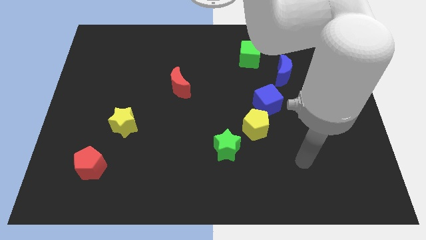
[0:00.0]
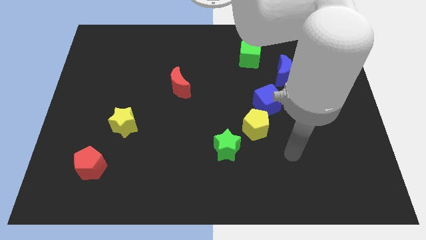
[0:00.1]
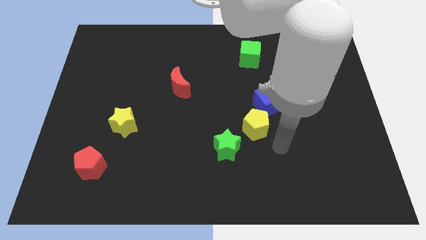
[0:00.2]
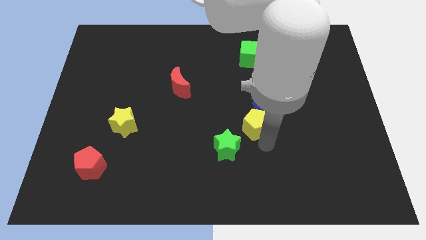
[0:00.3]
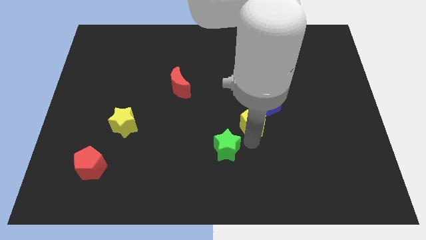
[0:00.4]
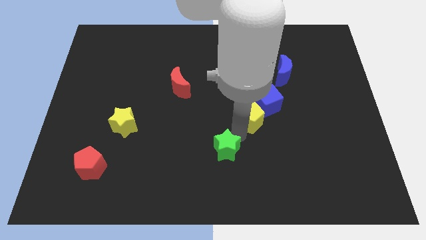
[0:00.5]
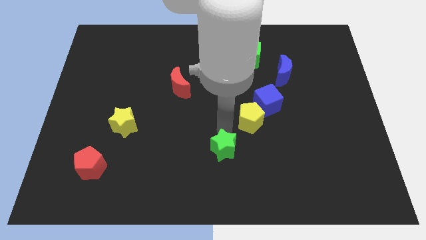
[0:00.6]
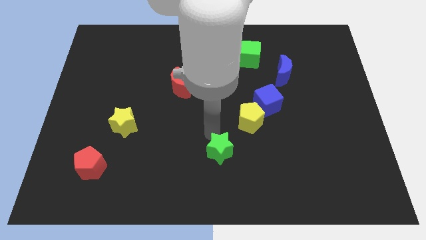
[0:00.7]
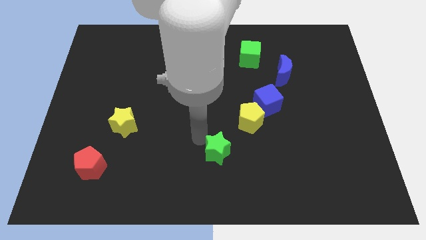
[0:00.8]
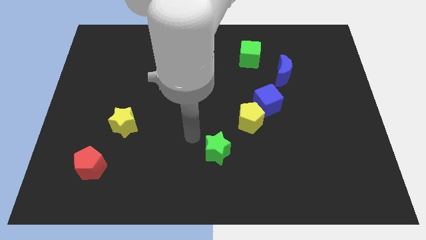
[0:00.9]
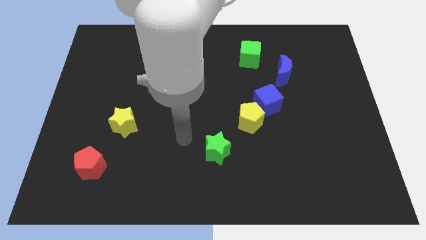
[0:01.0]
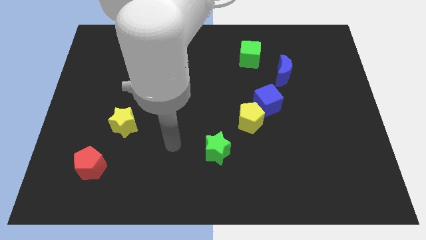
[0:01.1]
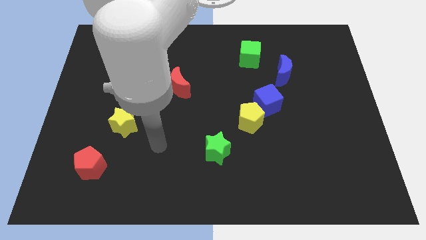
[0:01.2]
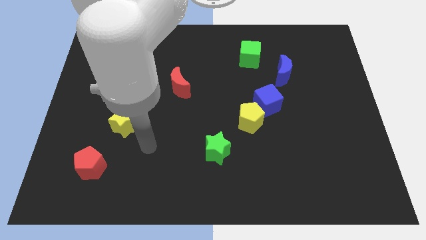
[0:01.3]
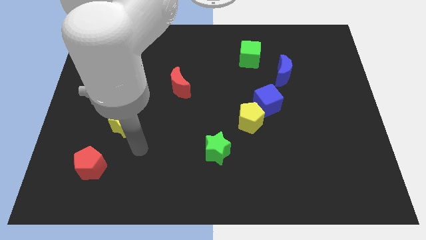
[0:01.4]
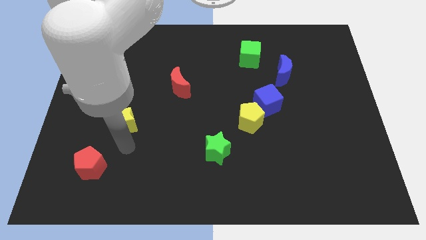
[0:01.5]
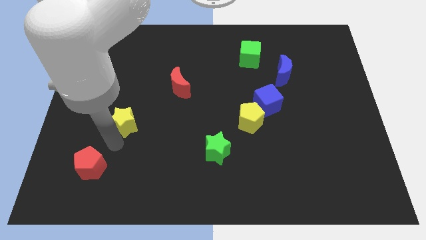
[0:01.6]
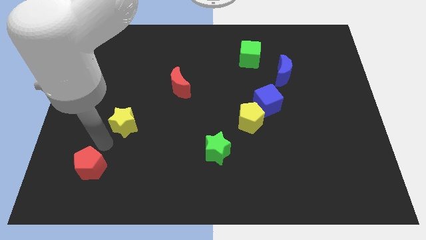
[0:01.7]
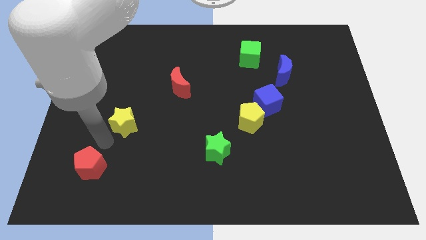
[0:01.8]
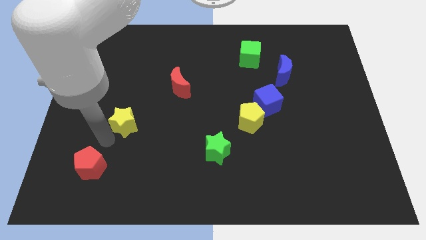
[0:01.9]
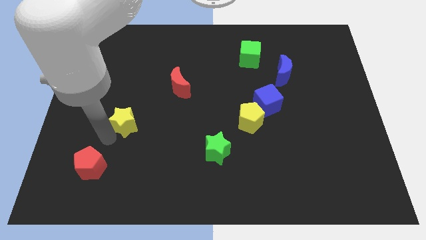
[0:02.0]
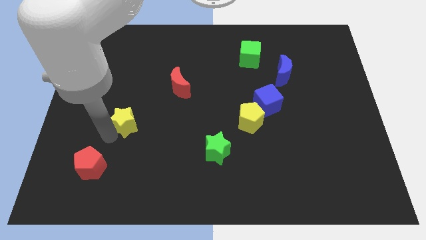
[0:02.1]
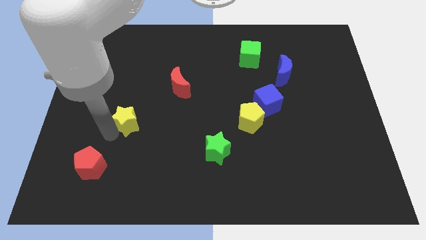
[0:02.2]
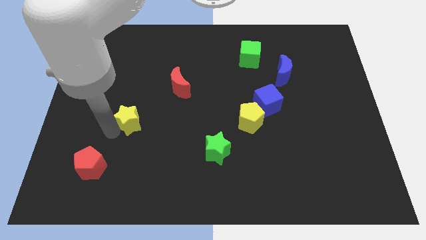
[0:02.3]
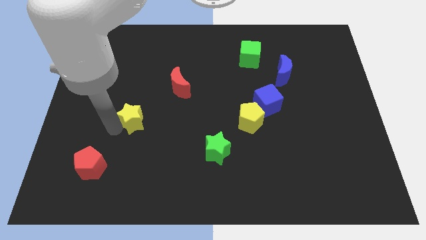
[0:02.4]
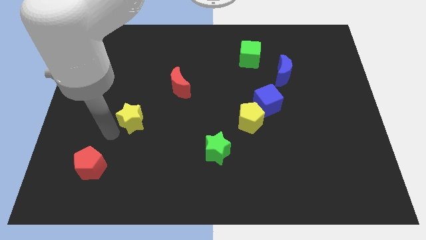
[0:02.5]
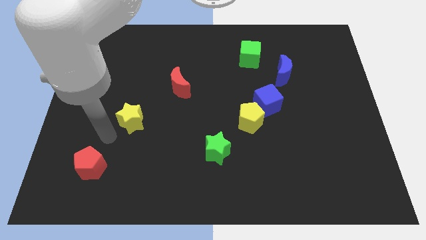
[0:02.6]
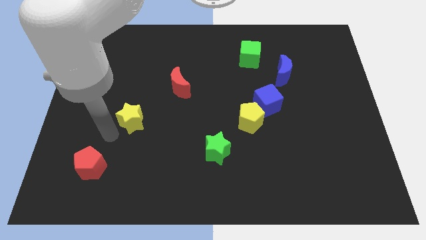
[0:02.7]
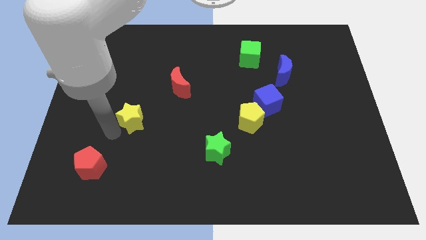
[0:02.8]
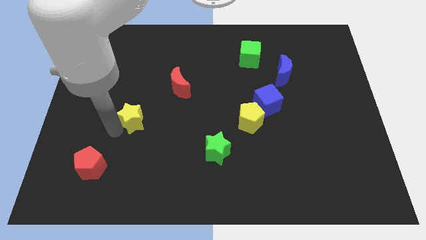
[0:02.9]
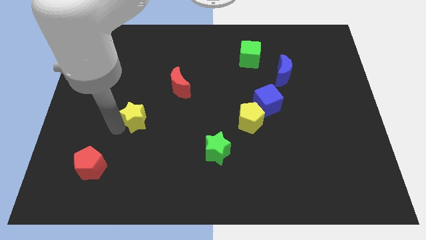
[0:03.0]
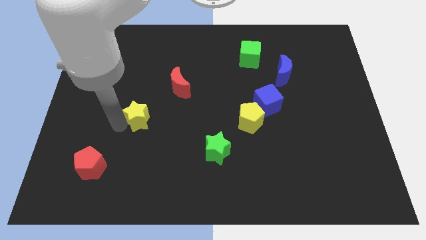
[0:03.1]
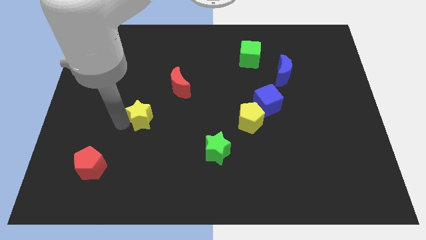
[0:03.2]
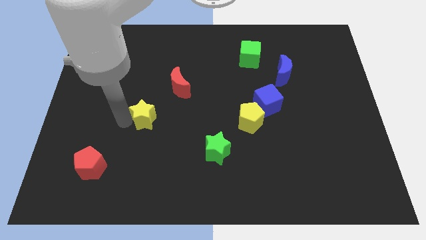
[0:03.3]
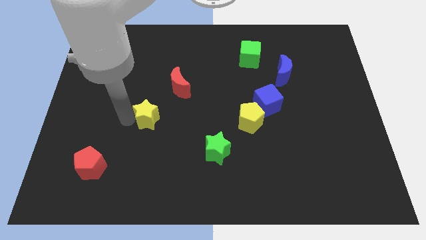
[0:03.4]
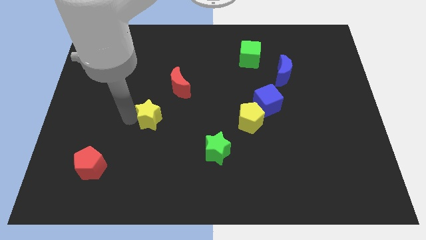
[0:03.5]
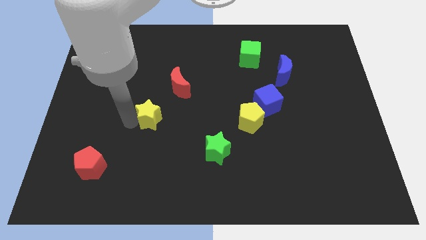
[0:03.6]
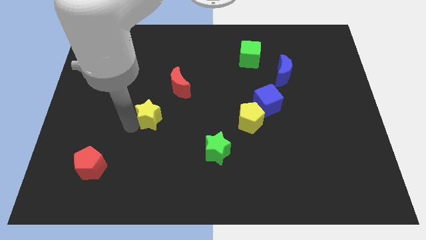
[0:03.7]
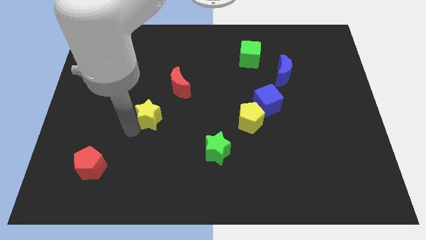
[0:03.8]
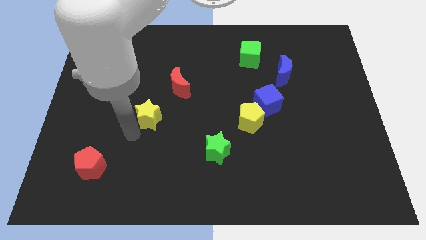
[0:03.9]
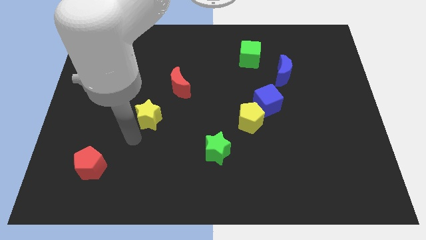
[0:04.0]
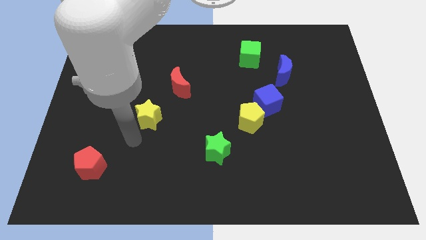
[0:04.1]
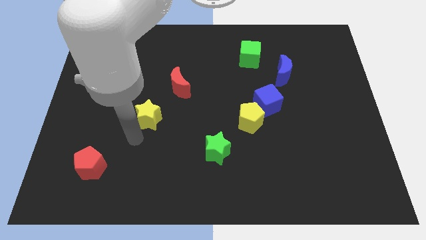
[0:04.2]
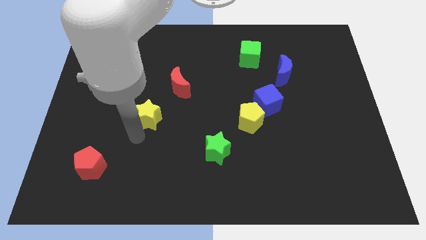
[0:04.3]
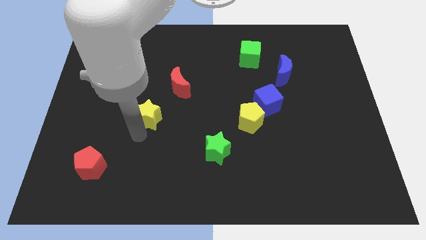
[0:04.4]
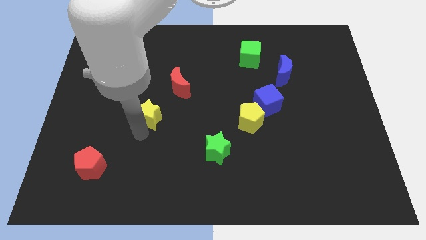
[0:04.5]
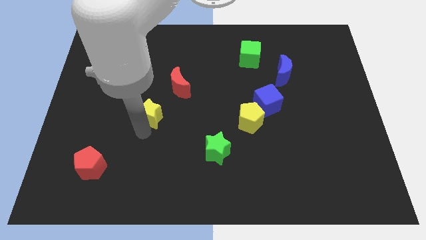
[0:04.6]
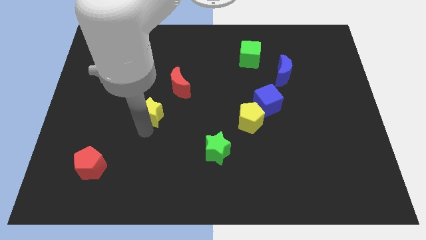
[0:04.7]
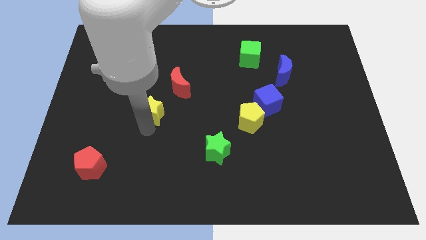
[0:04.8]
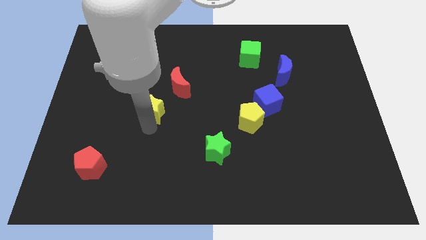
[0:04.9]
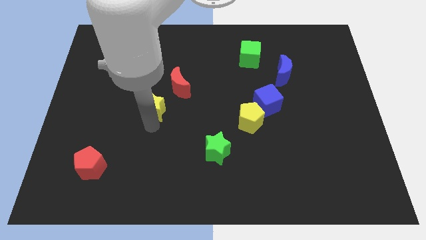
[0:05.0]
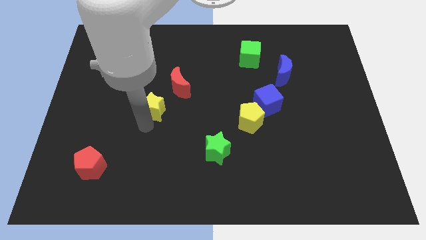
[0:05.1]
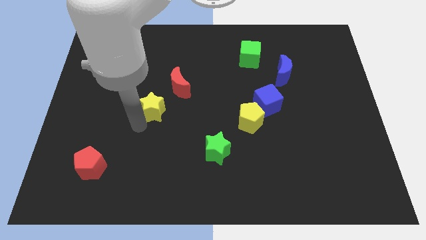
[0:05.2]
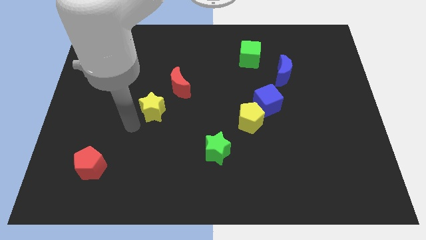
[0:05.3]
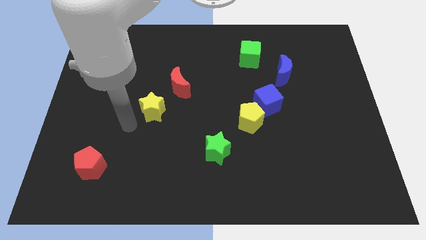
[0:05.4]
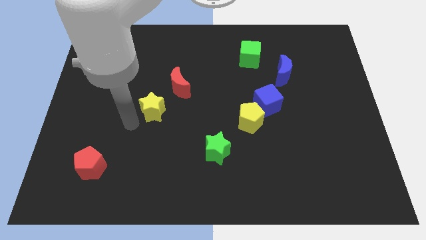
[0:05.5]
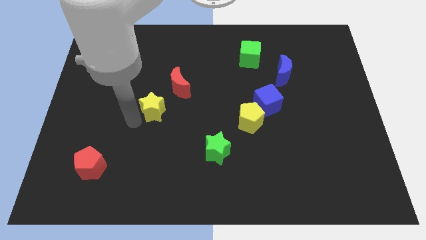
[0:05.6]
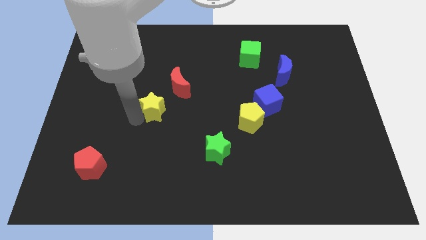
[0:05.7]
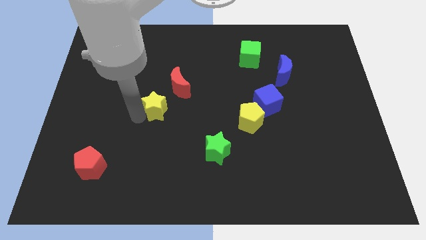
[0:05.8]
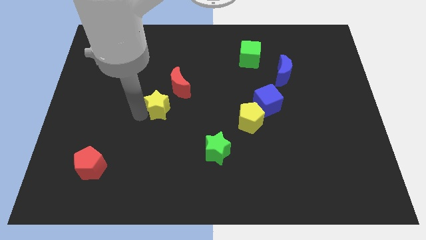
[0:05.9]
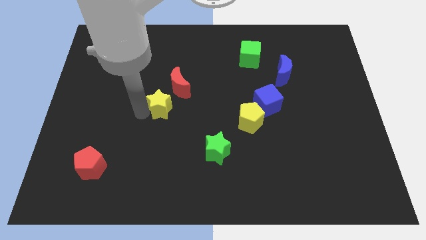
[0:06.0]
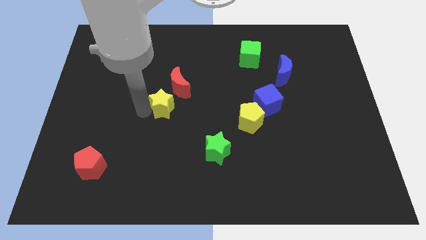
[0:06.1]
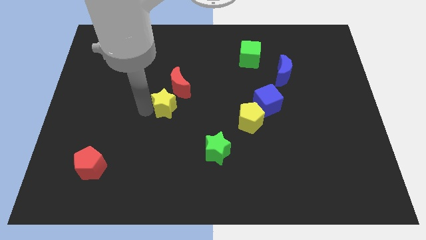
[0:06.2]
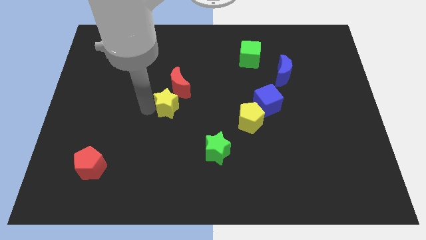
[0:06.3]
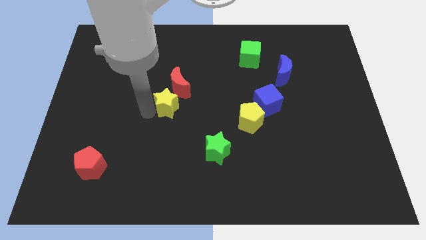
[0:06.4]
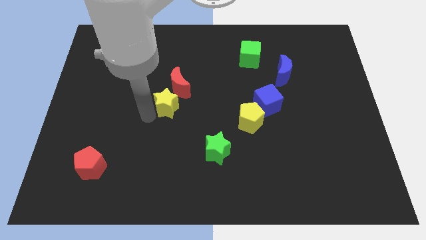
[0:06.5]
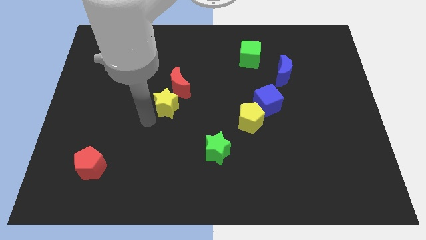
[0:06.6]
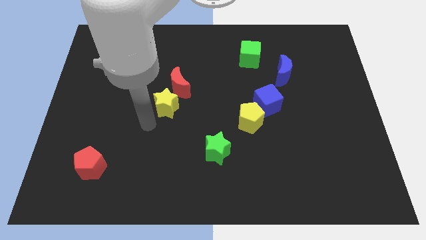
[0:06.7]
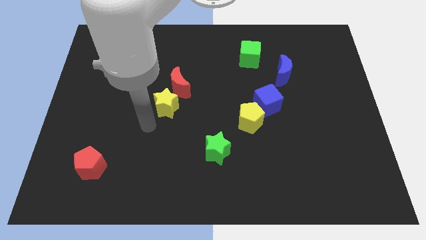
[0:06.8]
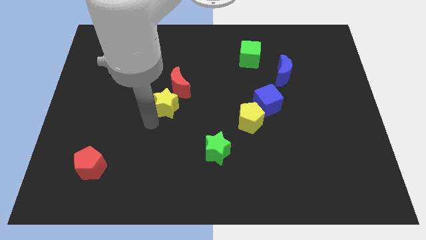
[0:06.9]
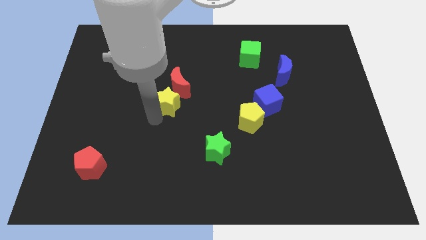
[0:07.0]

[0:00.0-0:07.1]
slide the yellow star towards the red moon
